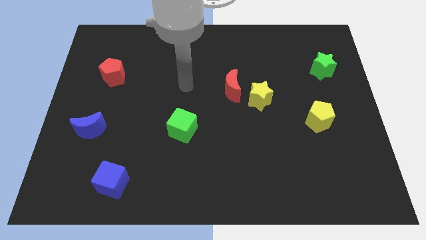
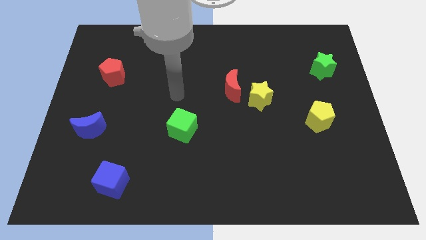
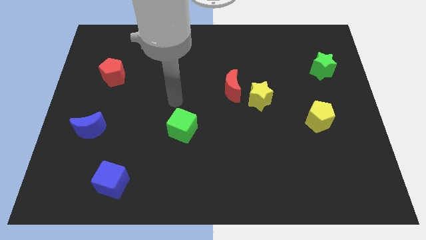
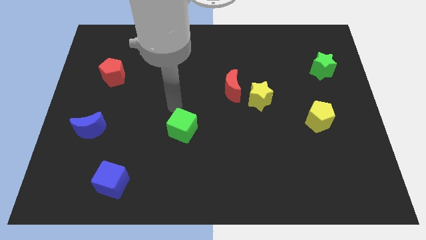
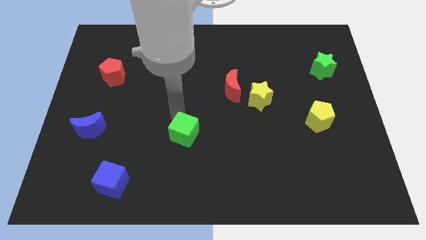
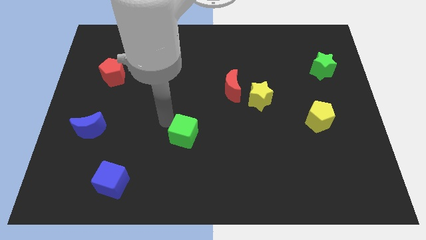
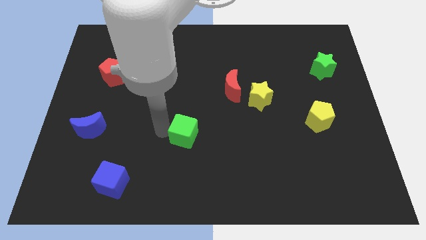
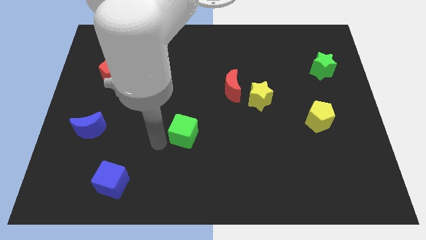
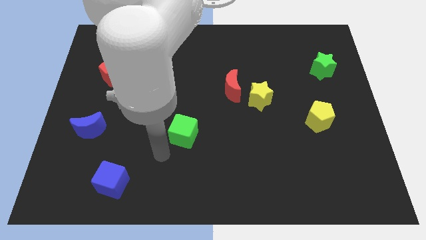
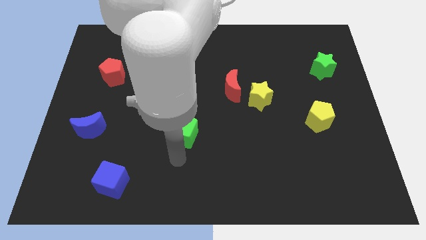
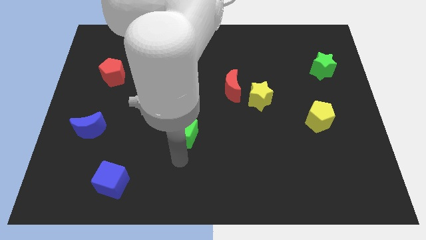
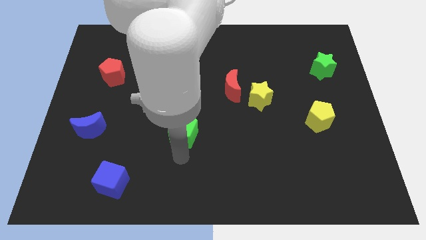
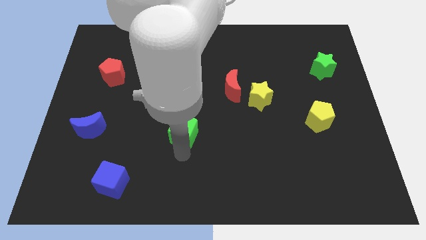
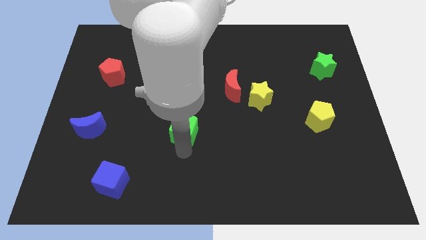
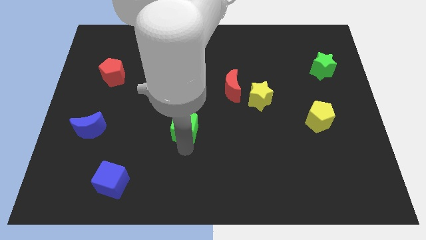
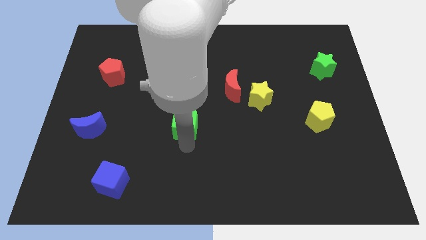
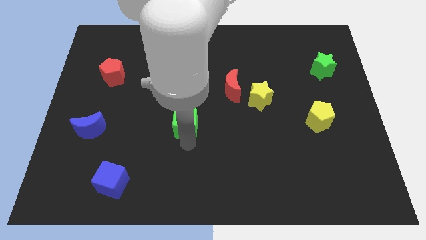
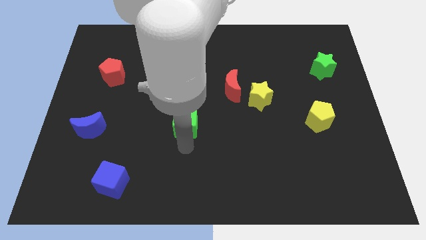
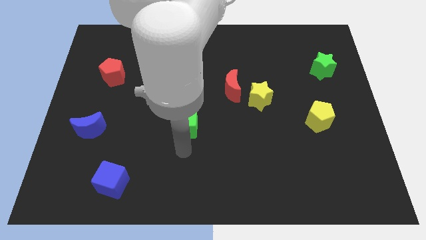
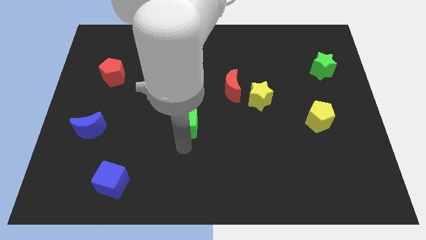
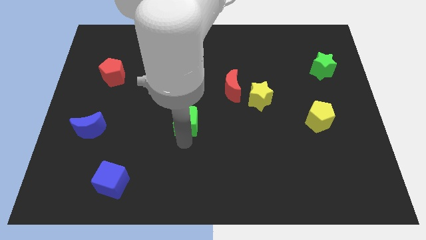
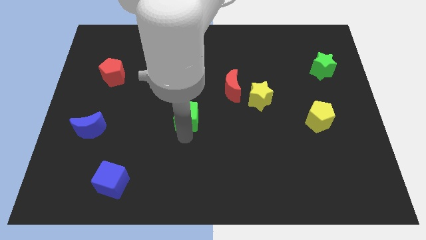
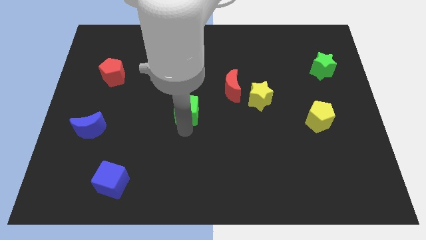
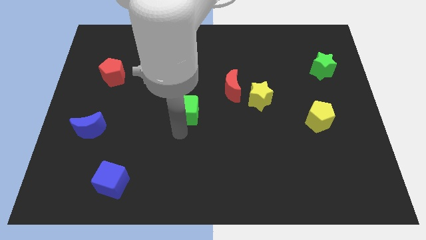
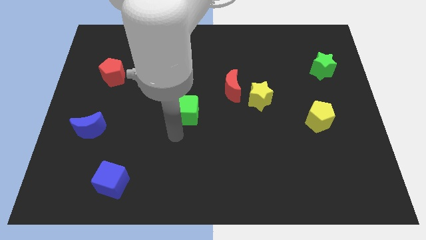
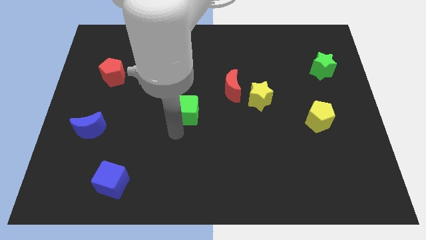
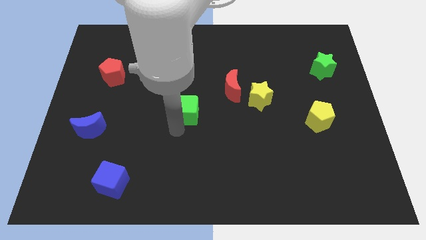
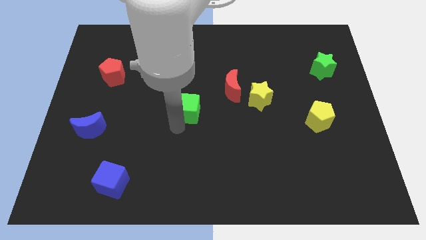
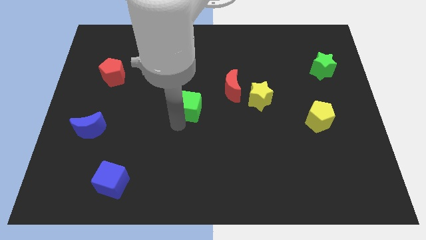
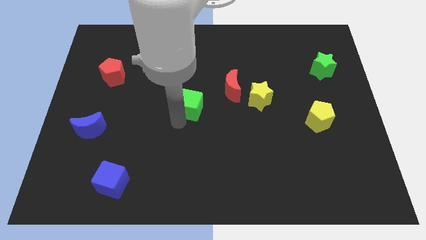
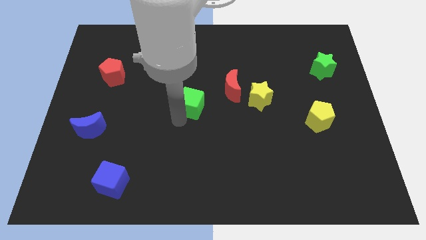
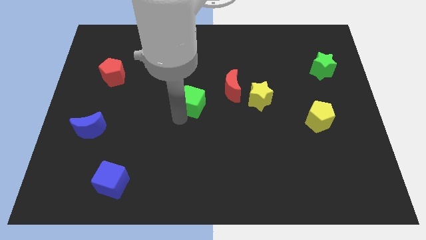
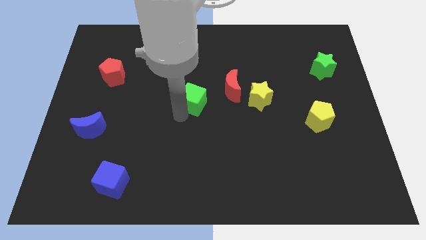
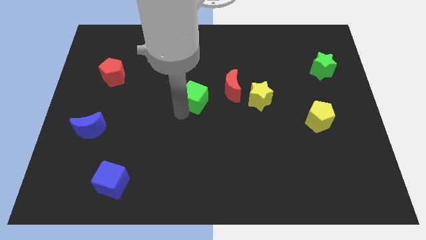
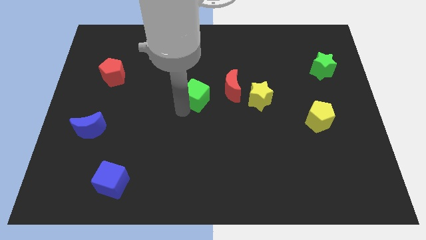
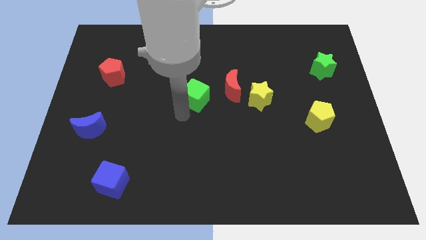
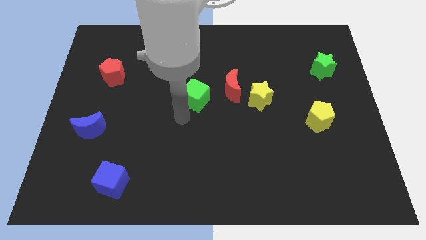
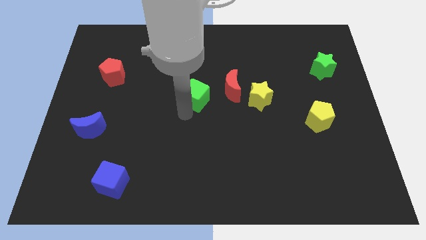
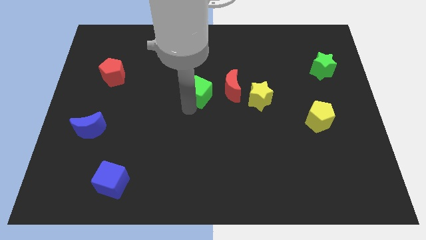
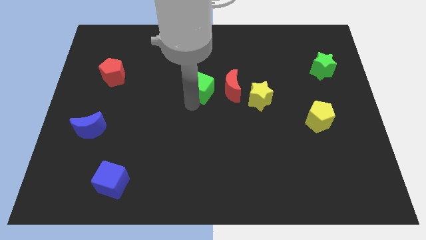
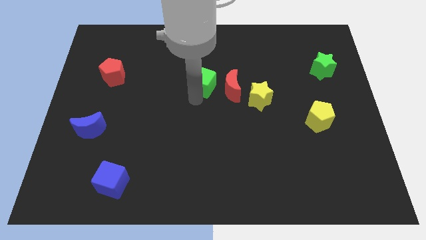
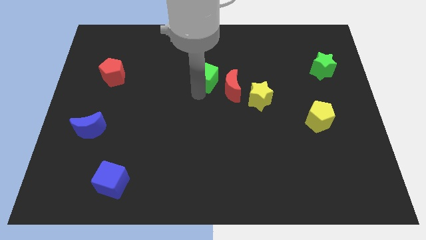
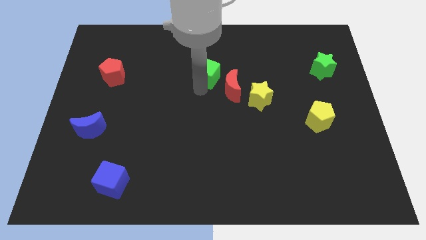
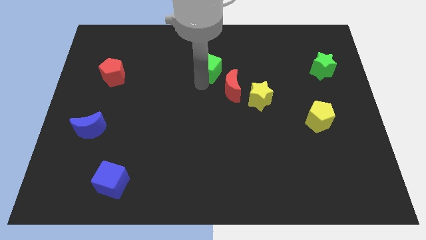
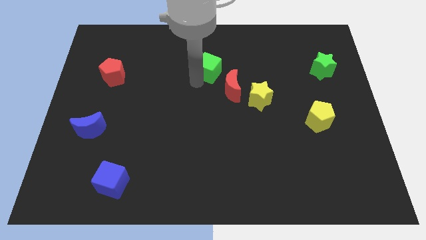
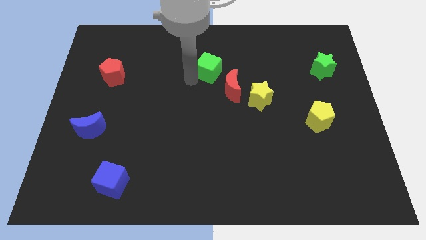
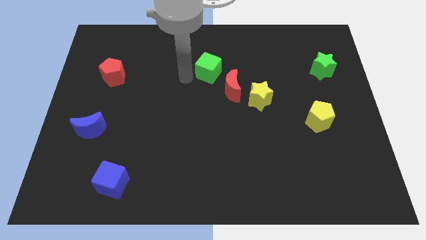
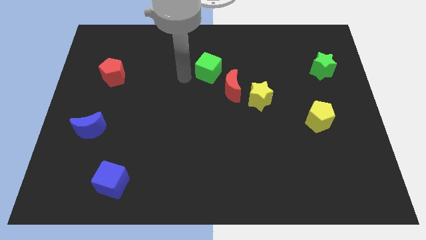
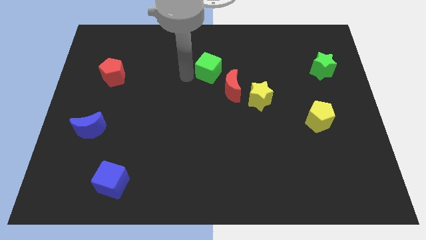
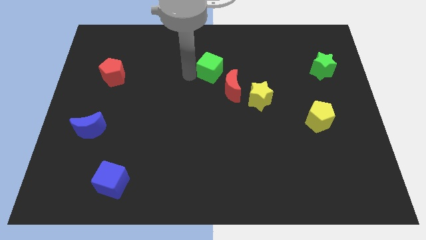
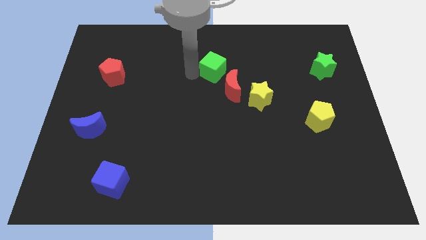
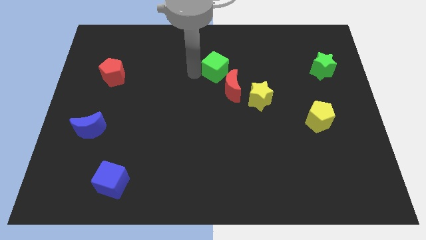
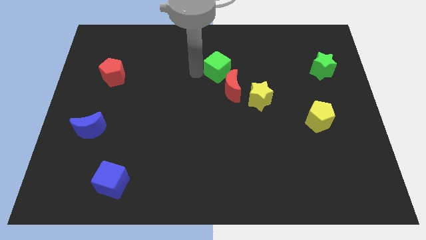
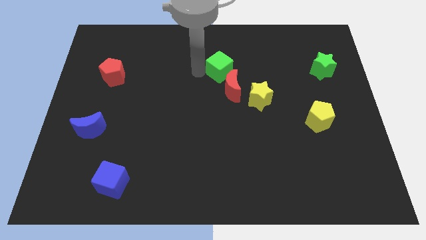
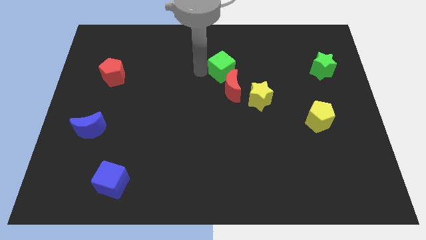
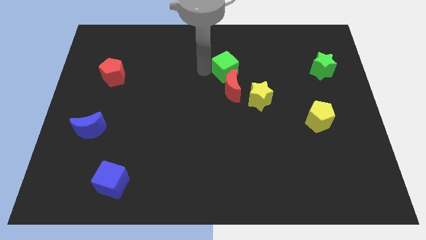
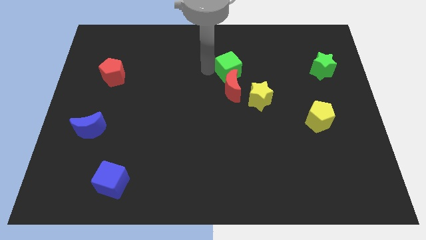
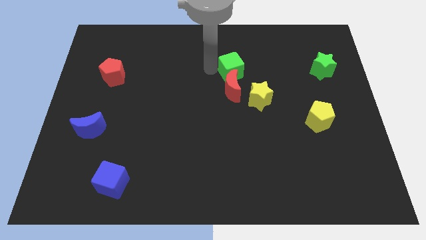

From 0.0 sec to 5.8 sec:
push the green cube up and right diagonally

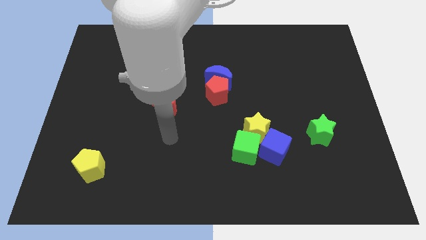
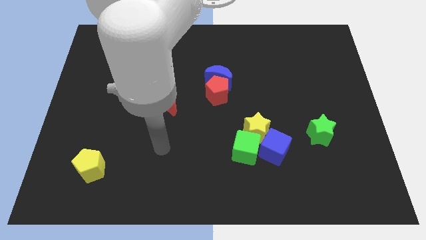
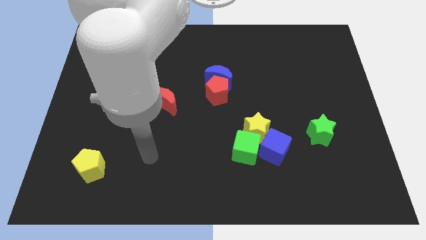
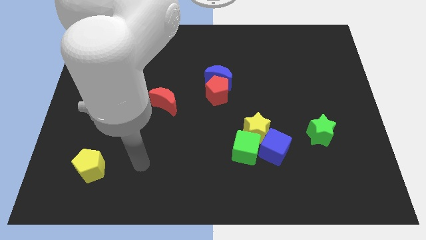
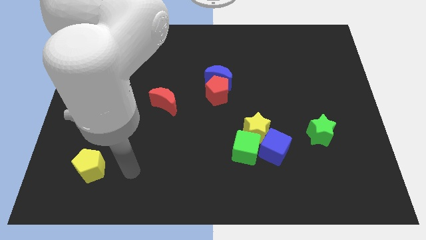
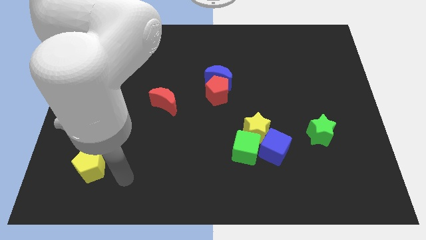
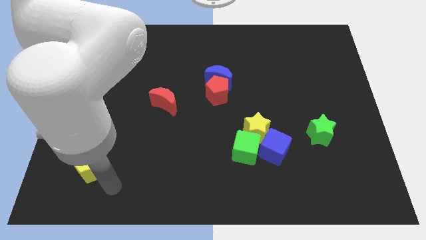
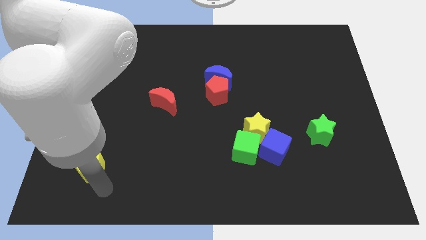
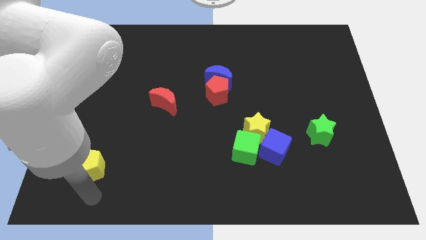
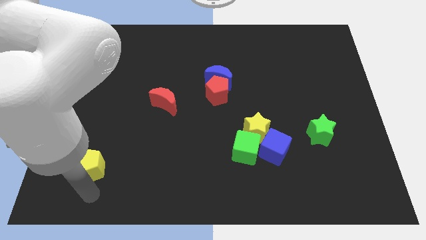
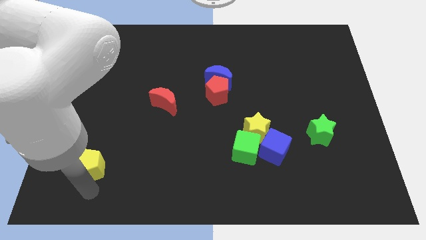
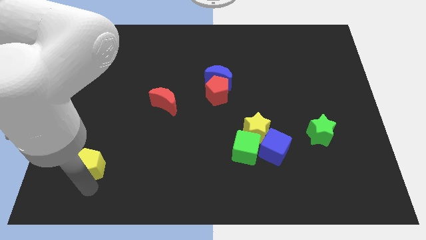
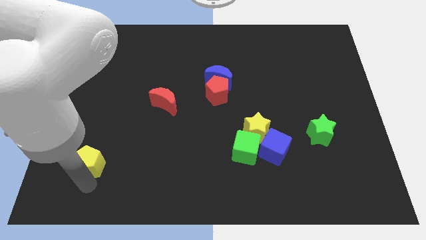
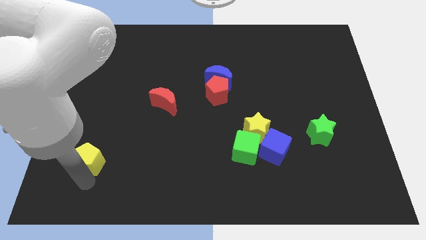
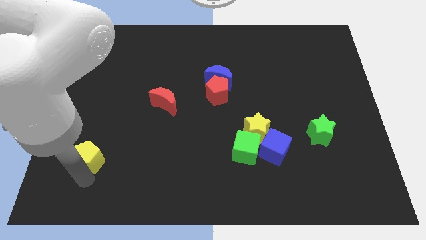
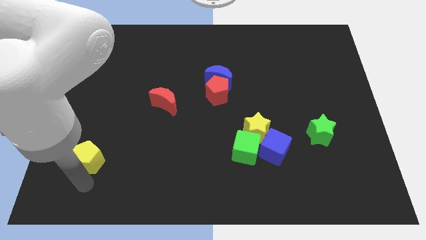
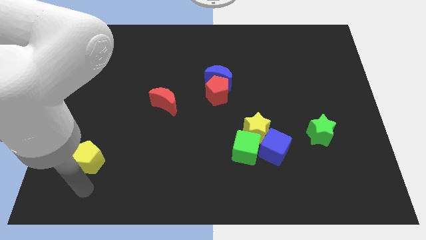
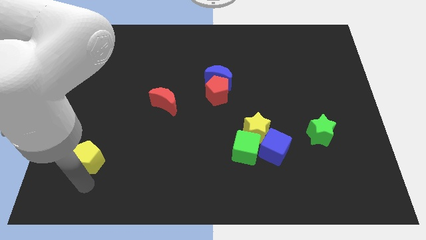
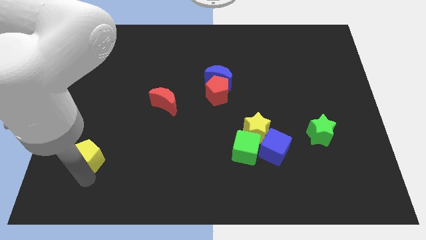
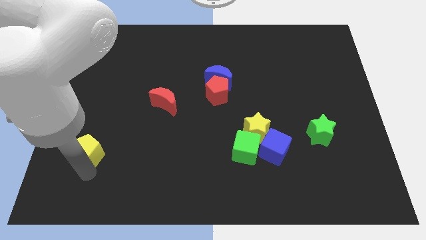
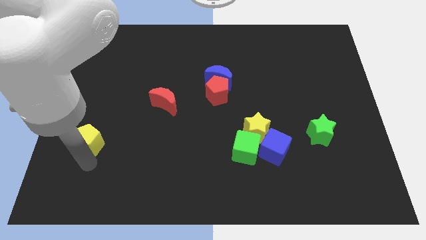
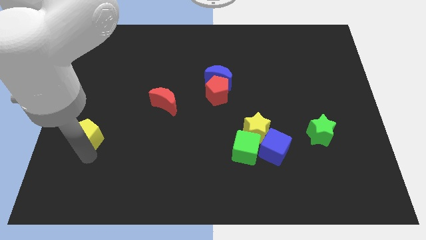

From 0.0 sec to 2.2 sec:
slightly push the yellow pentagon up
